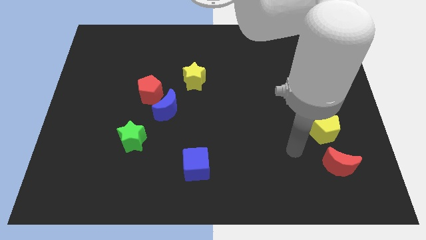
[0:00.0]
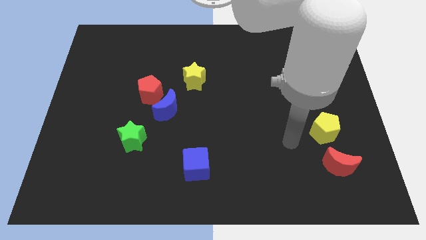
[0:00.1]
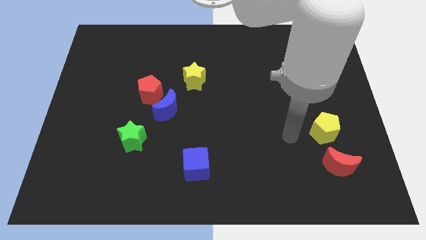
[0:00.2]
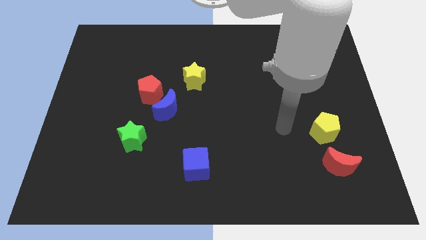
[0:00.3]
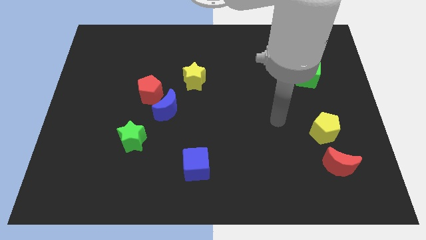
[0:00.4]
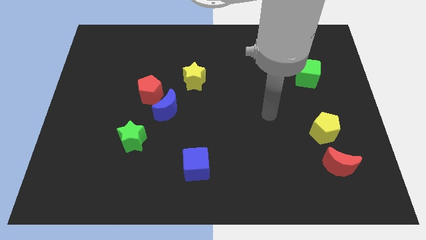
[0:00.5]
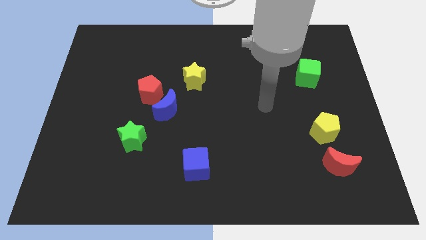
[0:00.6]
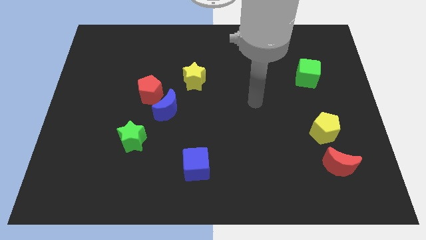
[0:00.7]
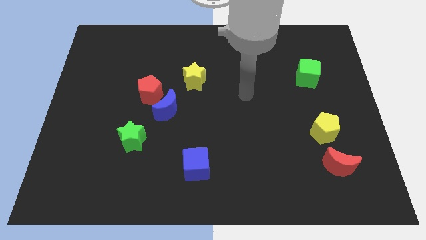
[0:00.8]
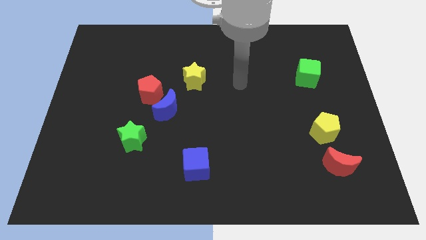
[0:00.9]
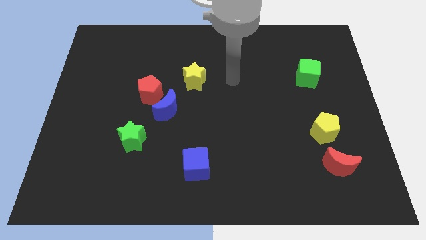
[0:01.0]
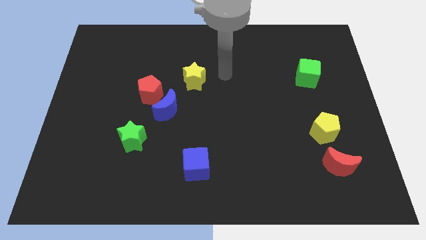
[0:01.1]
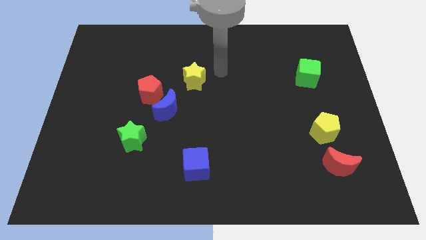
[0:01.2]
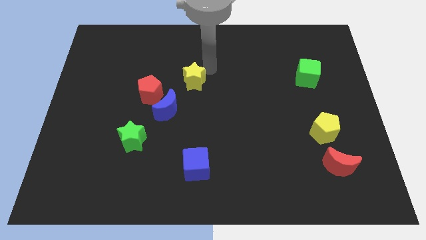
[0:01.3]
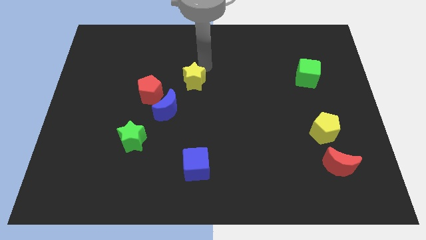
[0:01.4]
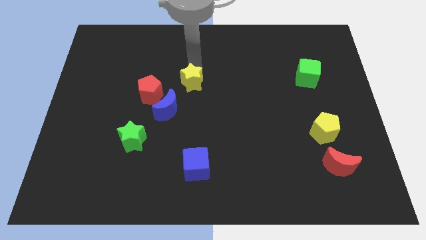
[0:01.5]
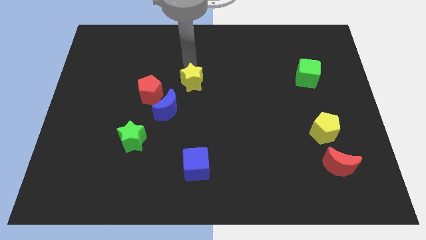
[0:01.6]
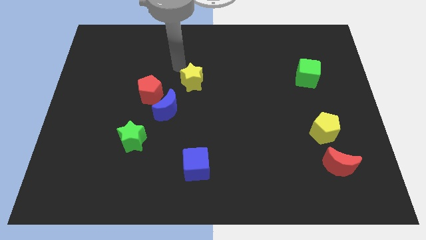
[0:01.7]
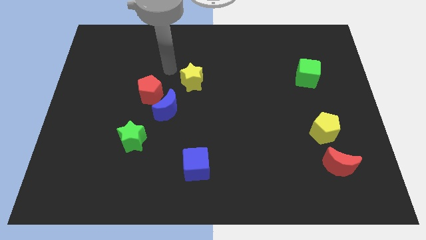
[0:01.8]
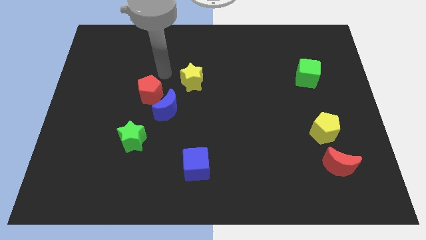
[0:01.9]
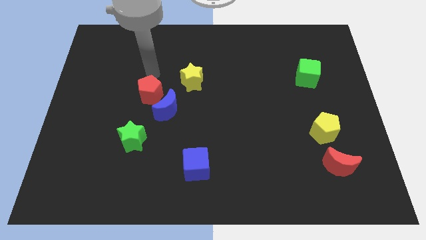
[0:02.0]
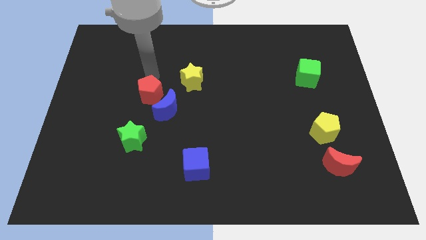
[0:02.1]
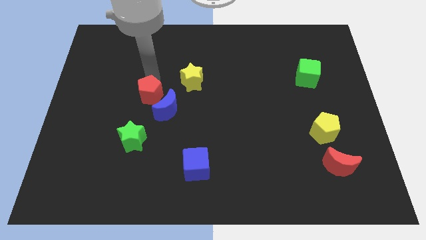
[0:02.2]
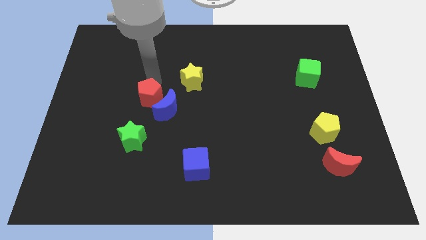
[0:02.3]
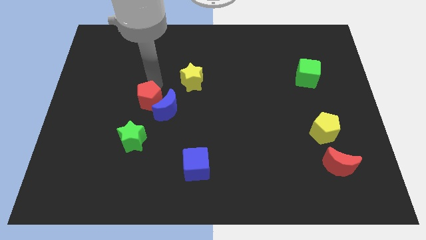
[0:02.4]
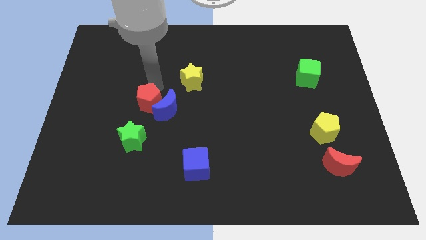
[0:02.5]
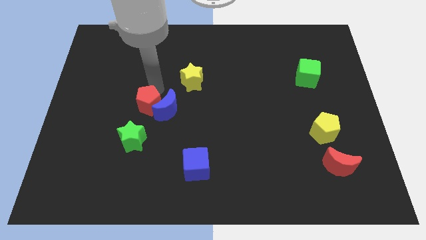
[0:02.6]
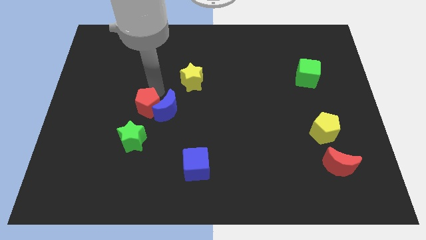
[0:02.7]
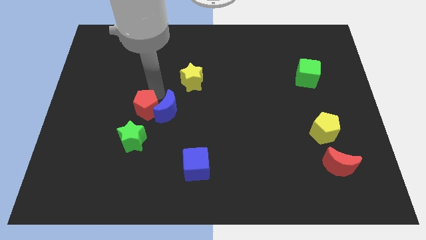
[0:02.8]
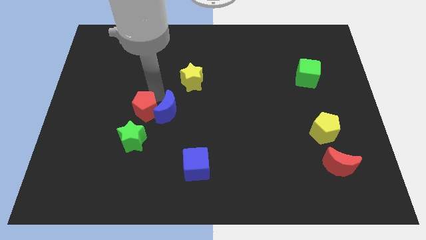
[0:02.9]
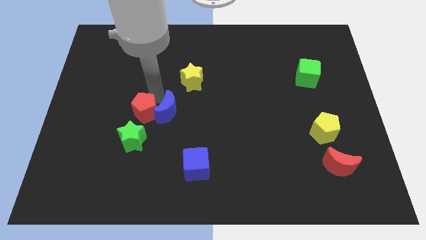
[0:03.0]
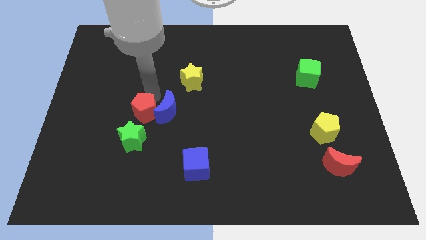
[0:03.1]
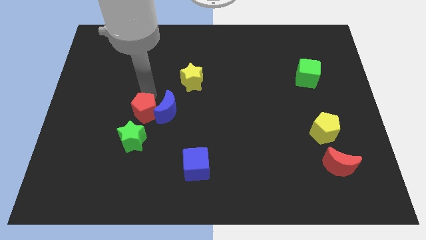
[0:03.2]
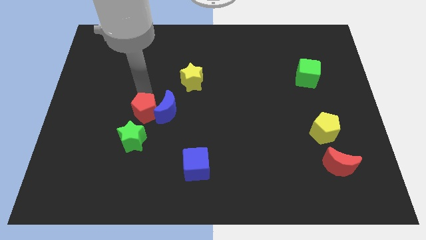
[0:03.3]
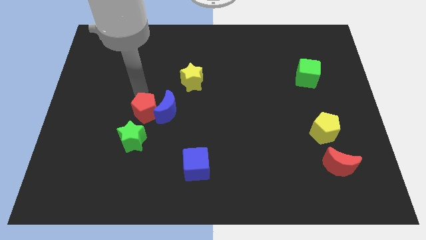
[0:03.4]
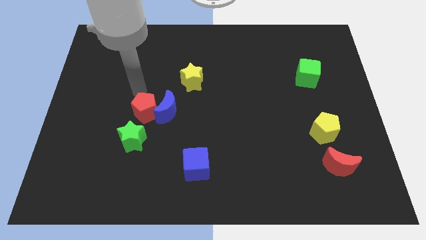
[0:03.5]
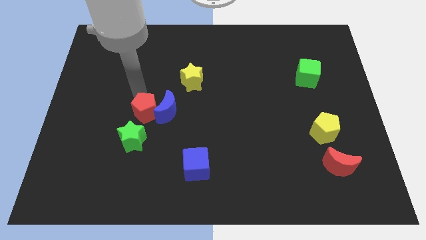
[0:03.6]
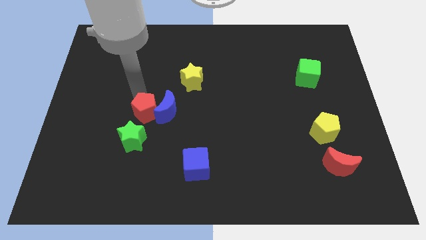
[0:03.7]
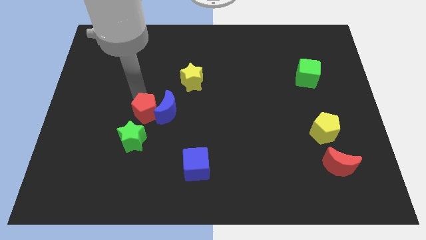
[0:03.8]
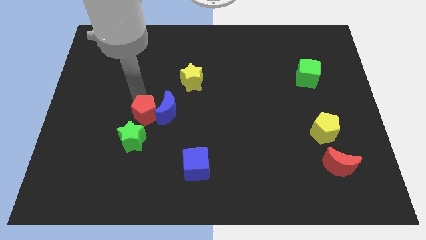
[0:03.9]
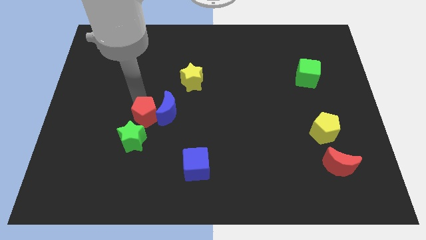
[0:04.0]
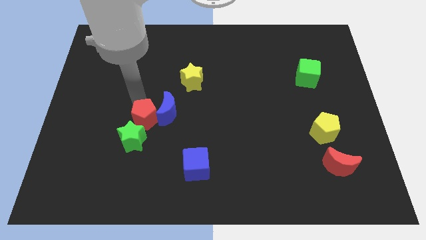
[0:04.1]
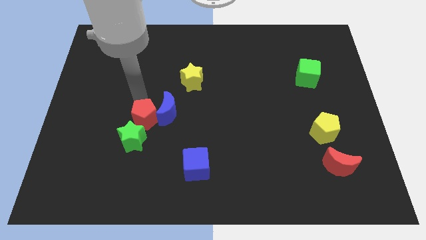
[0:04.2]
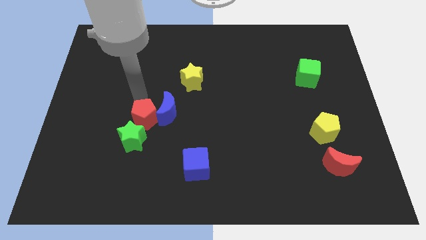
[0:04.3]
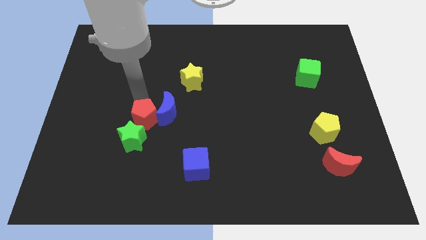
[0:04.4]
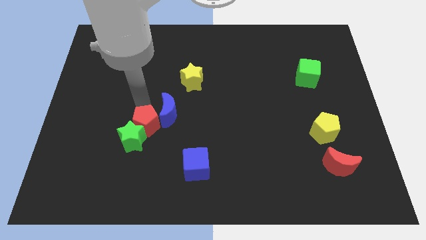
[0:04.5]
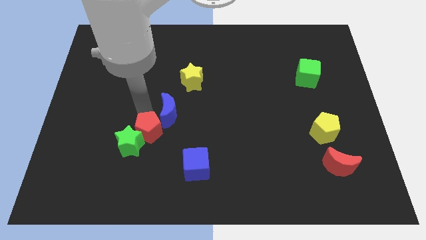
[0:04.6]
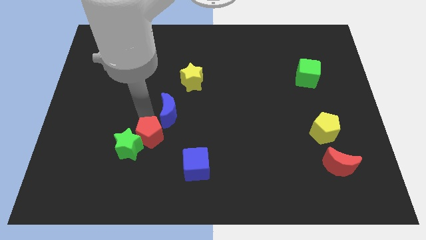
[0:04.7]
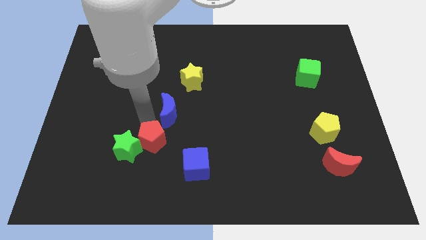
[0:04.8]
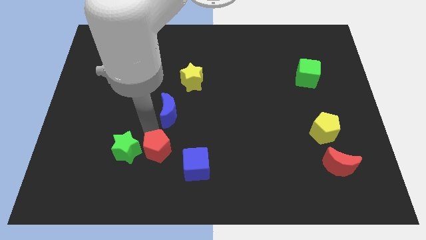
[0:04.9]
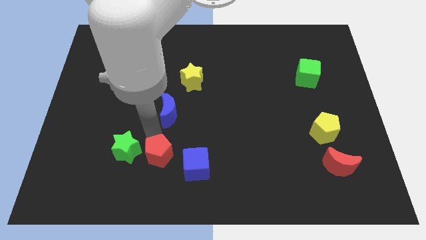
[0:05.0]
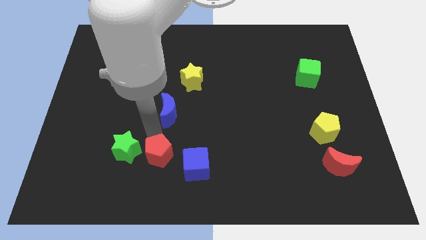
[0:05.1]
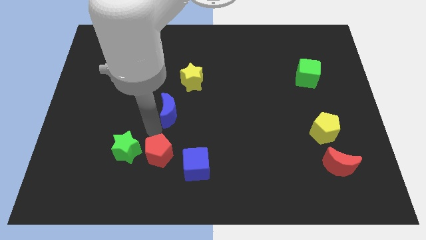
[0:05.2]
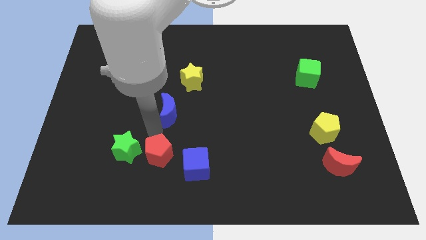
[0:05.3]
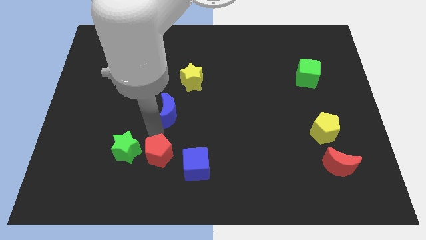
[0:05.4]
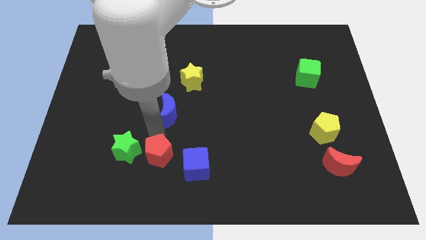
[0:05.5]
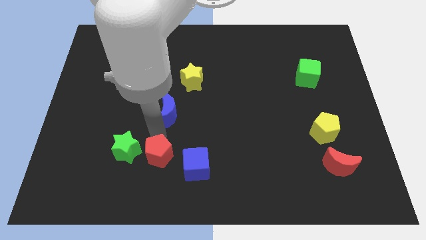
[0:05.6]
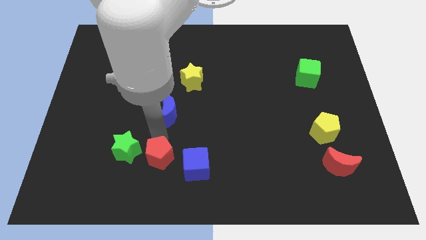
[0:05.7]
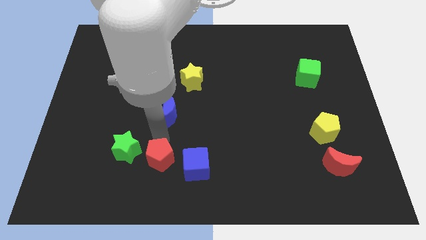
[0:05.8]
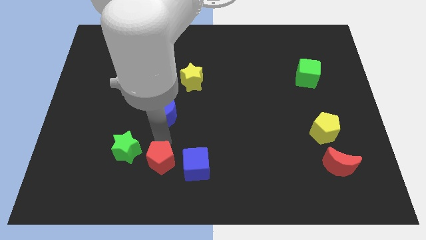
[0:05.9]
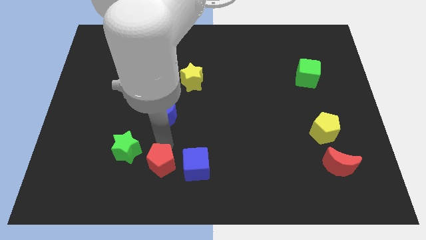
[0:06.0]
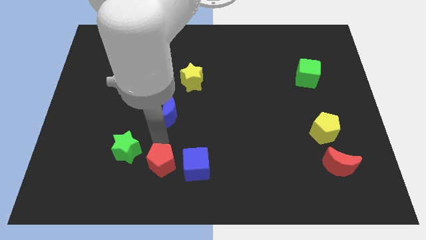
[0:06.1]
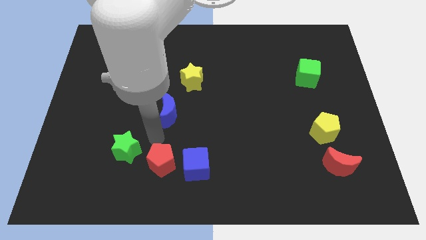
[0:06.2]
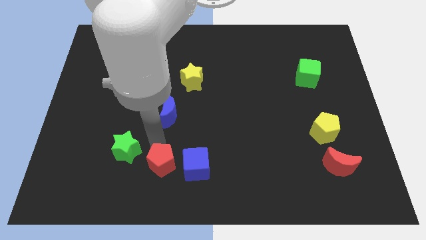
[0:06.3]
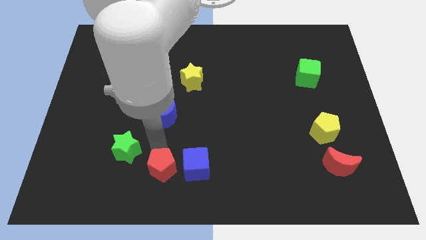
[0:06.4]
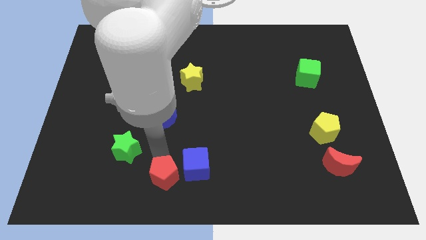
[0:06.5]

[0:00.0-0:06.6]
put the red pentagon to the bottom

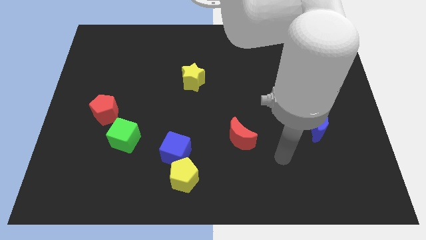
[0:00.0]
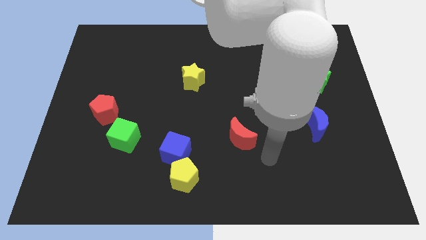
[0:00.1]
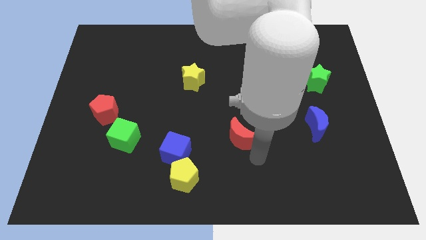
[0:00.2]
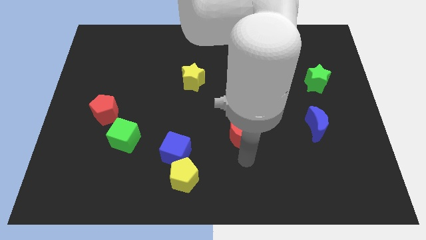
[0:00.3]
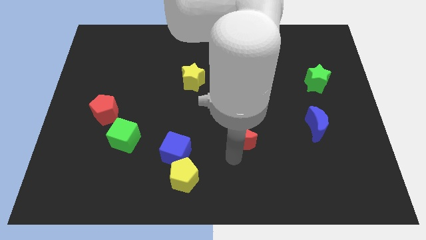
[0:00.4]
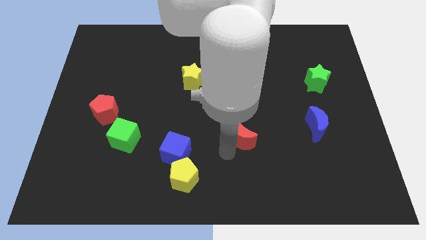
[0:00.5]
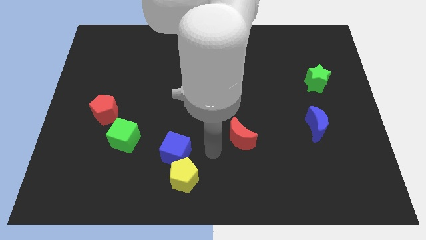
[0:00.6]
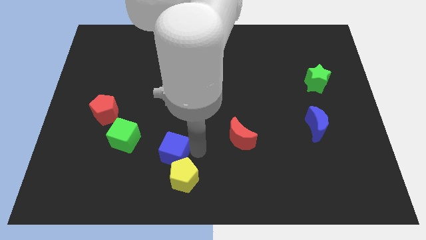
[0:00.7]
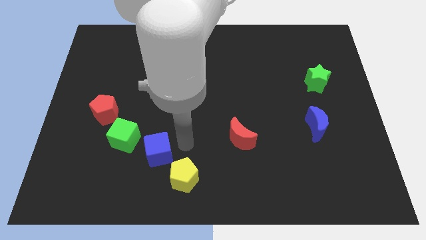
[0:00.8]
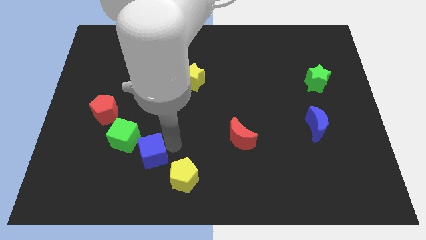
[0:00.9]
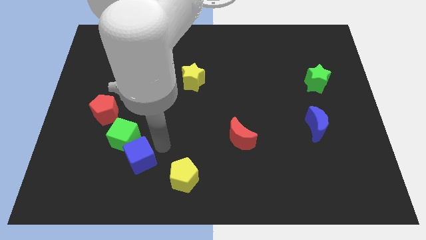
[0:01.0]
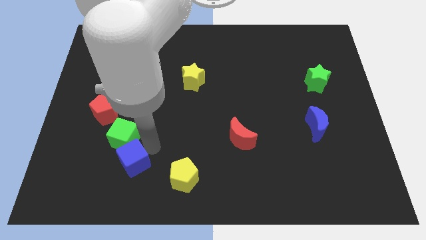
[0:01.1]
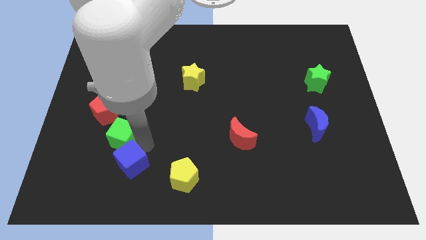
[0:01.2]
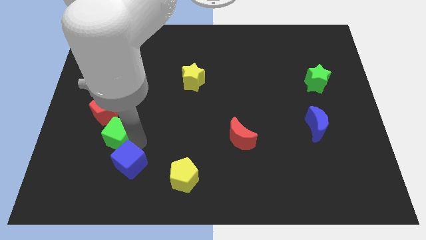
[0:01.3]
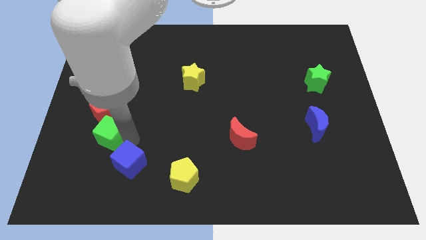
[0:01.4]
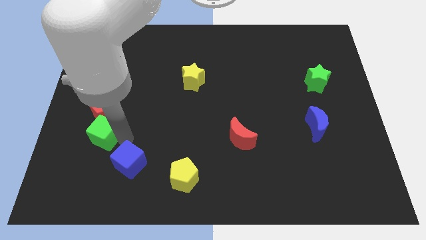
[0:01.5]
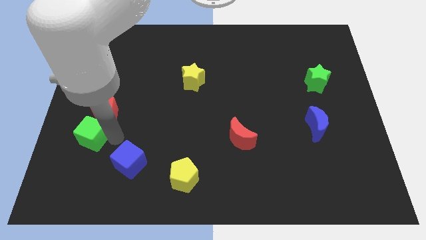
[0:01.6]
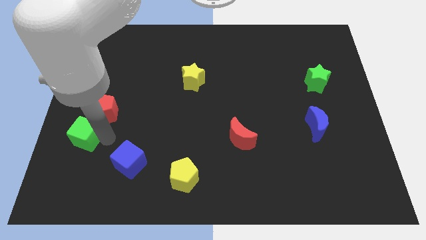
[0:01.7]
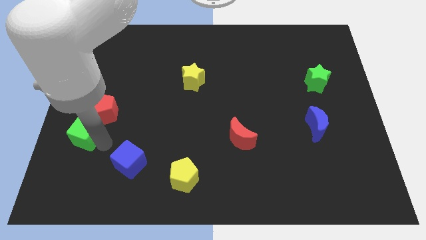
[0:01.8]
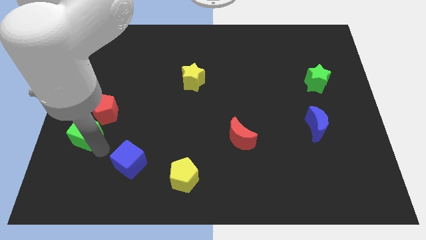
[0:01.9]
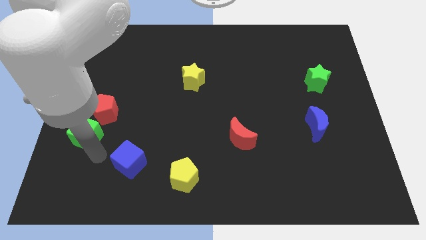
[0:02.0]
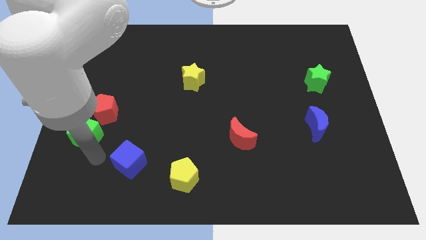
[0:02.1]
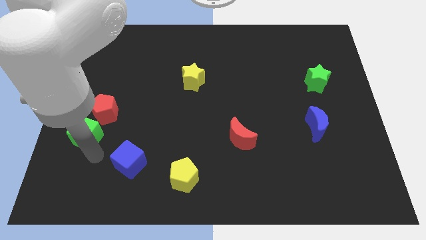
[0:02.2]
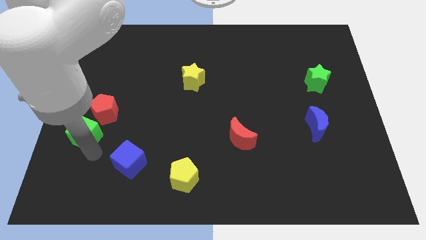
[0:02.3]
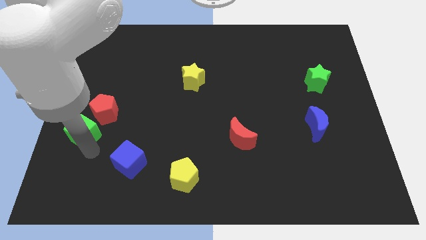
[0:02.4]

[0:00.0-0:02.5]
push the green cube to the left side
